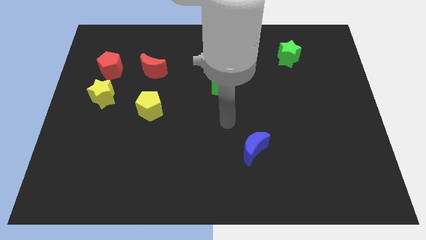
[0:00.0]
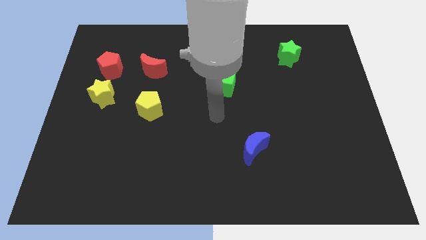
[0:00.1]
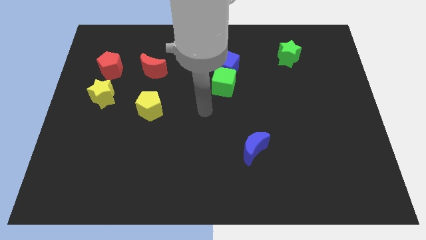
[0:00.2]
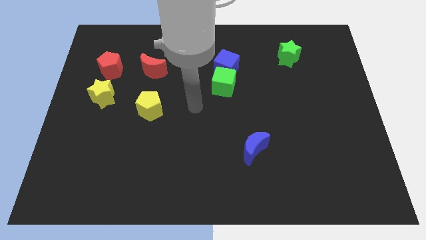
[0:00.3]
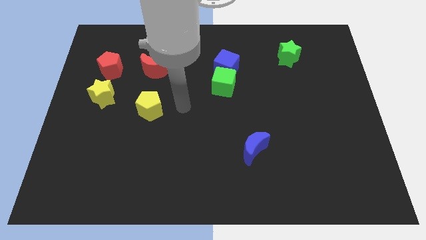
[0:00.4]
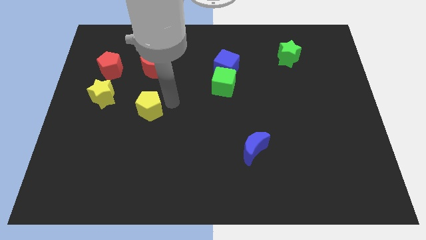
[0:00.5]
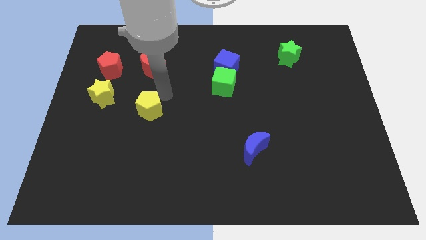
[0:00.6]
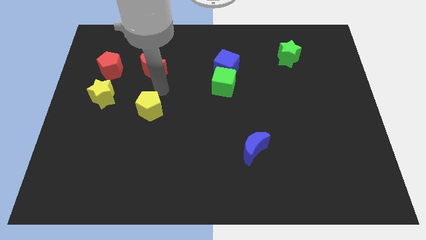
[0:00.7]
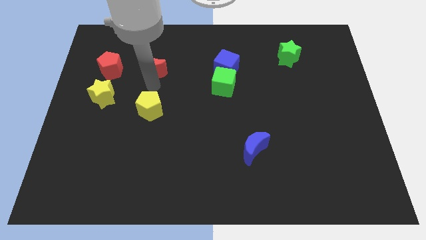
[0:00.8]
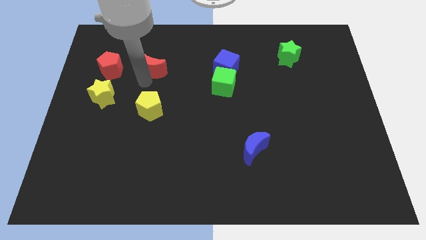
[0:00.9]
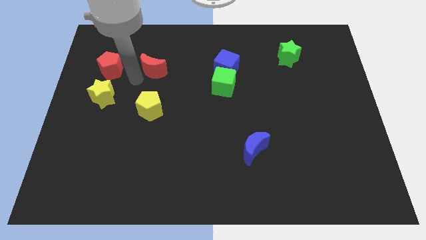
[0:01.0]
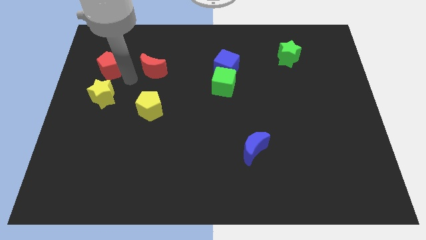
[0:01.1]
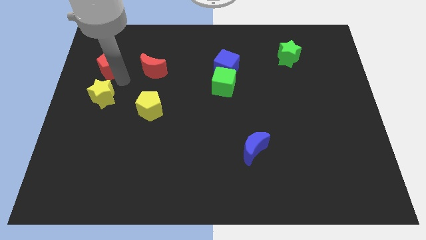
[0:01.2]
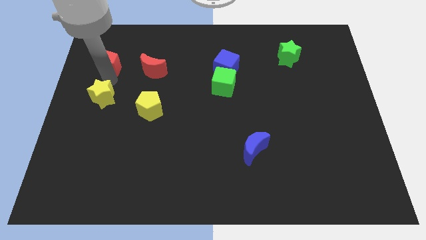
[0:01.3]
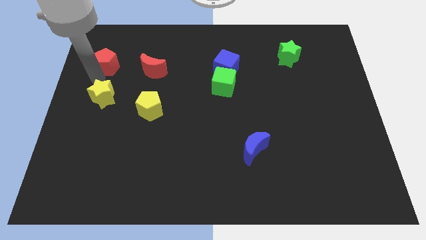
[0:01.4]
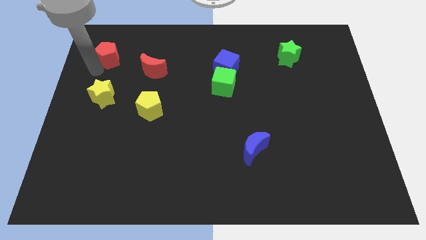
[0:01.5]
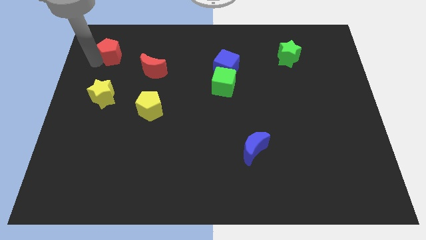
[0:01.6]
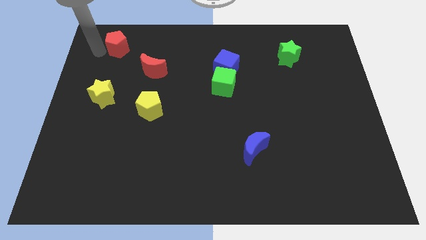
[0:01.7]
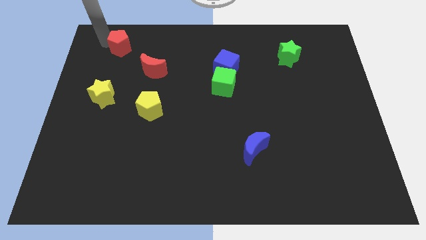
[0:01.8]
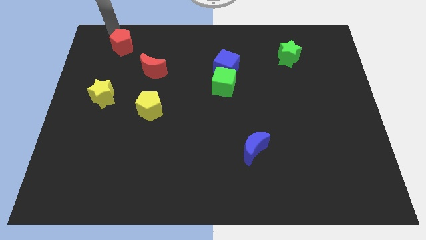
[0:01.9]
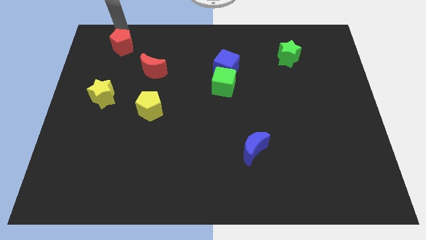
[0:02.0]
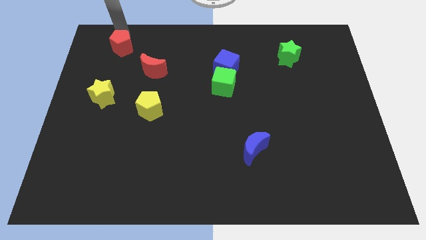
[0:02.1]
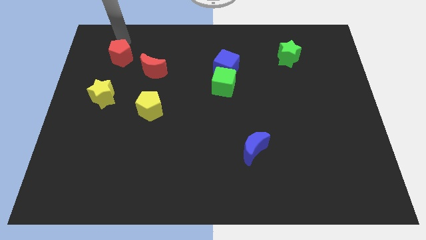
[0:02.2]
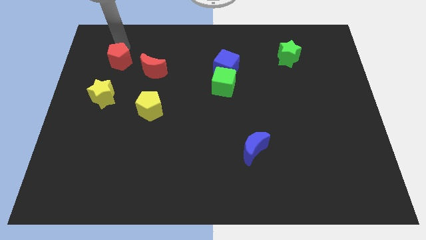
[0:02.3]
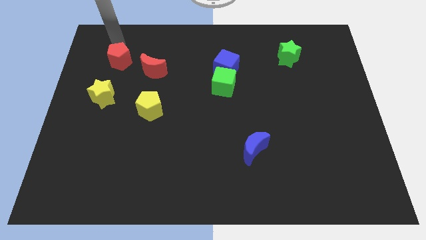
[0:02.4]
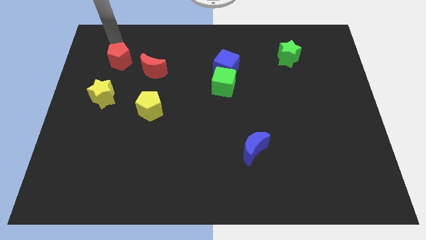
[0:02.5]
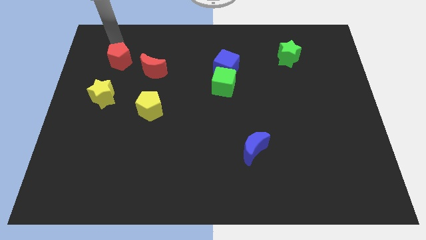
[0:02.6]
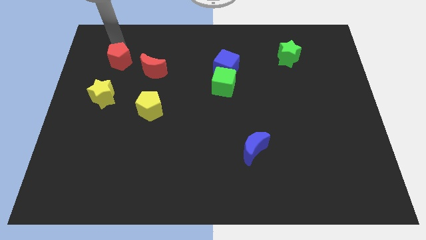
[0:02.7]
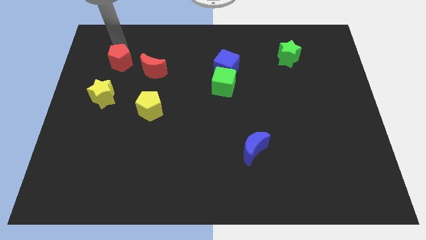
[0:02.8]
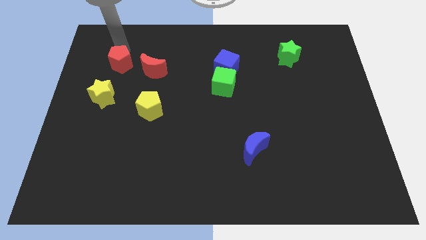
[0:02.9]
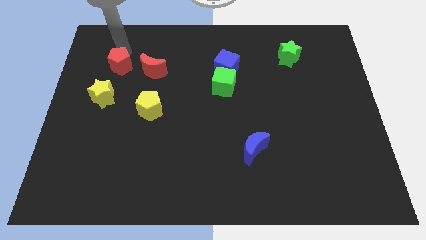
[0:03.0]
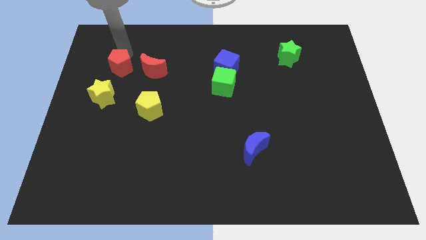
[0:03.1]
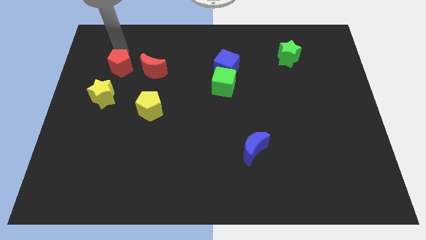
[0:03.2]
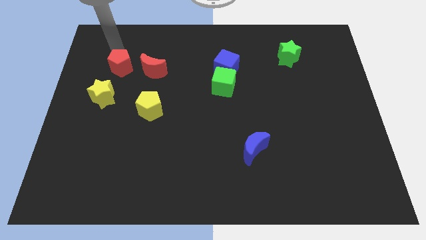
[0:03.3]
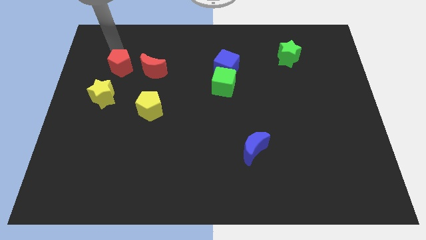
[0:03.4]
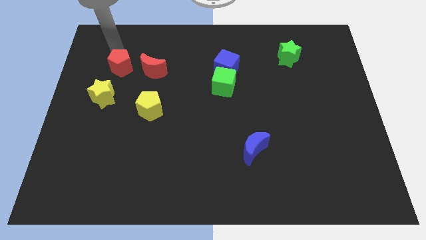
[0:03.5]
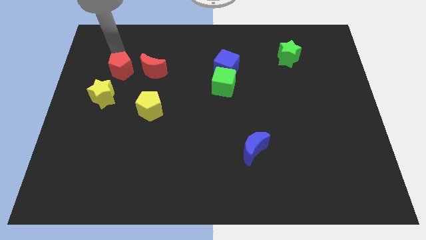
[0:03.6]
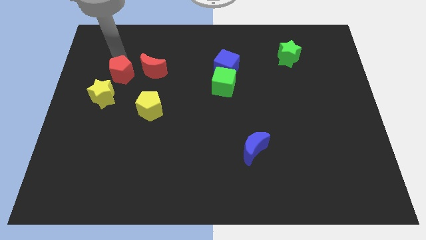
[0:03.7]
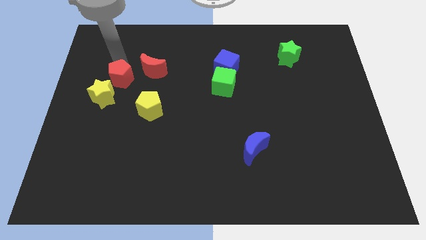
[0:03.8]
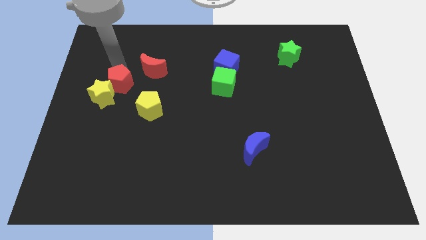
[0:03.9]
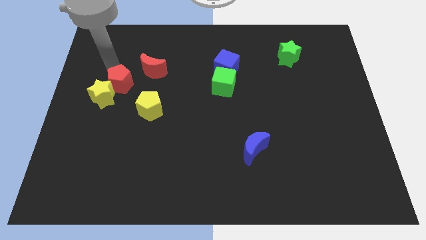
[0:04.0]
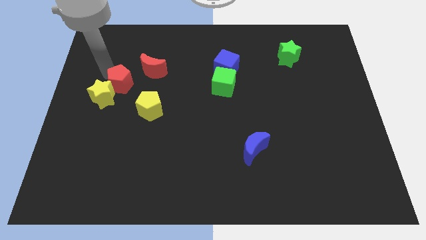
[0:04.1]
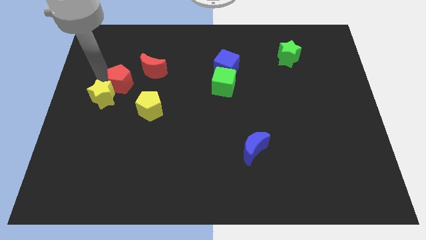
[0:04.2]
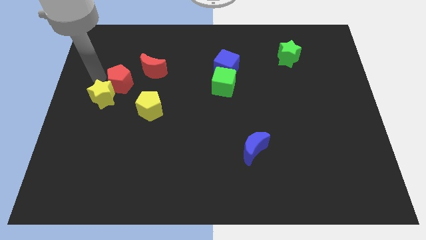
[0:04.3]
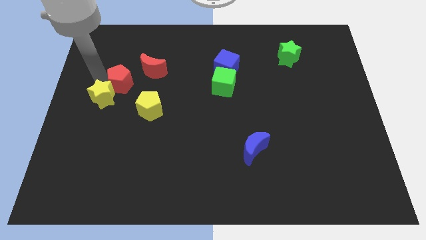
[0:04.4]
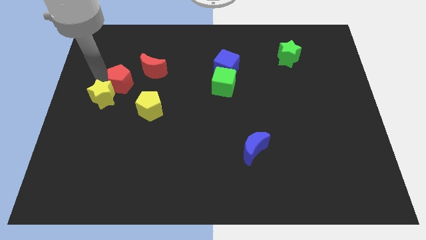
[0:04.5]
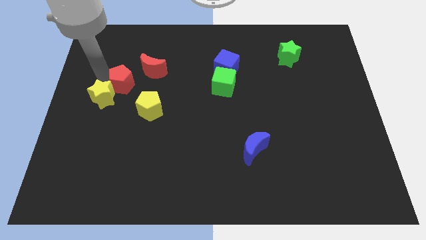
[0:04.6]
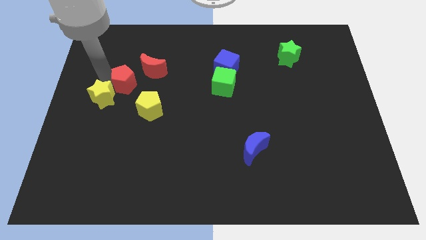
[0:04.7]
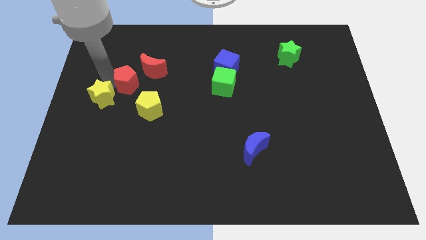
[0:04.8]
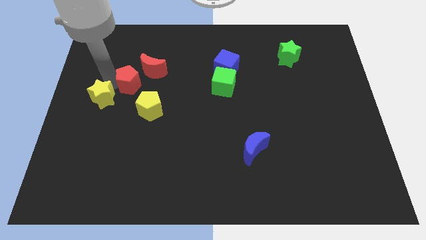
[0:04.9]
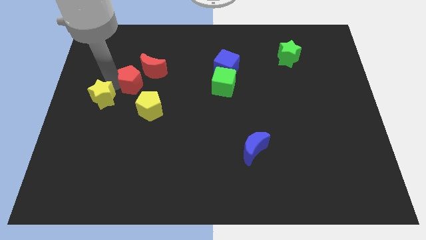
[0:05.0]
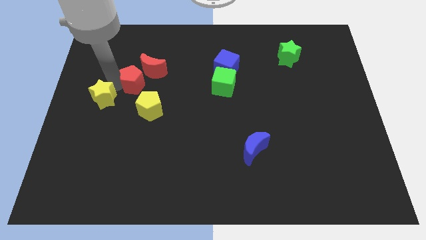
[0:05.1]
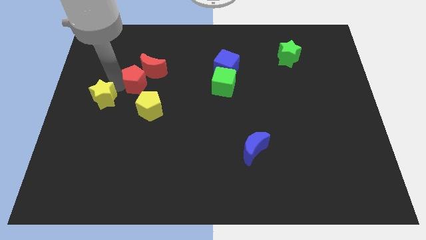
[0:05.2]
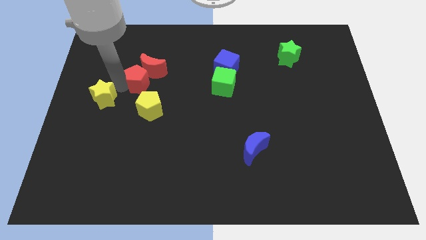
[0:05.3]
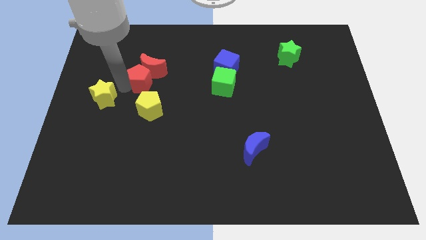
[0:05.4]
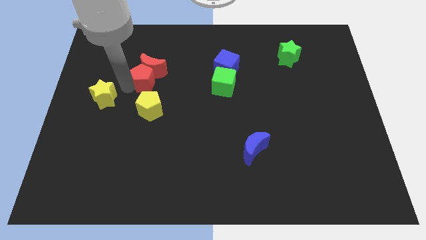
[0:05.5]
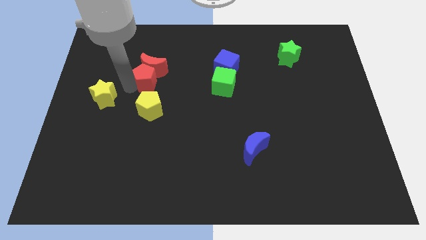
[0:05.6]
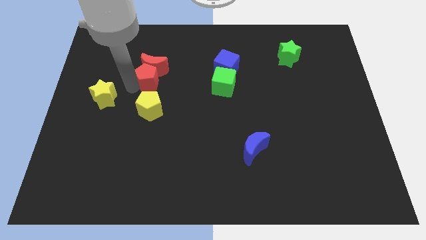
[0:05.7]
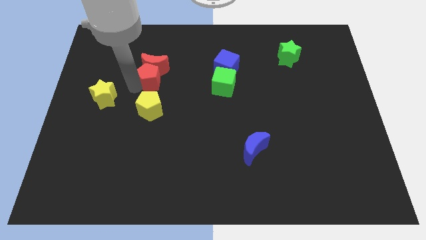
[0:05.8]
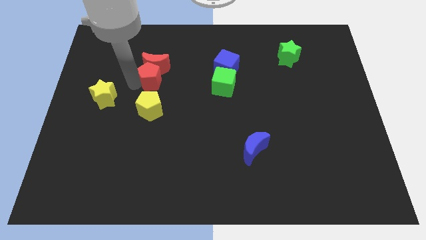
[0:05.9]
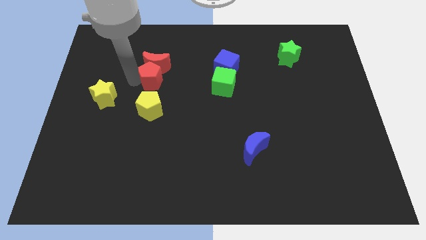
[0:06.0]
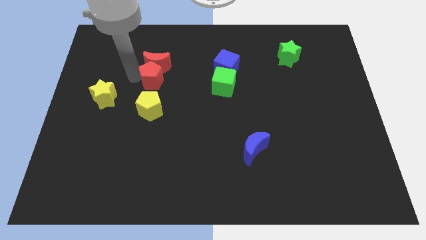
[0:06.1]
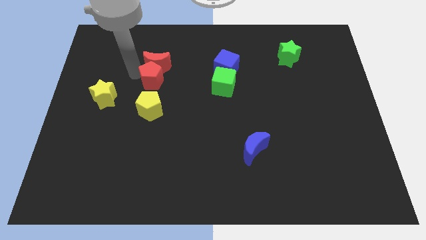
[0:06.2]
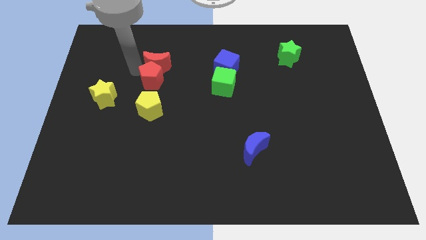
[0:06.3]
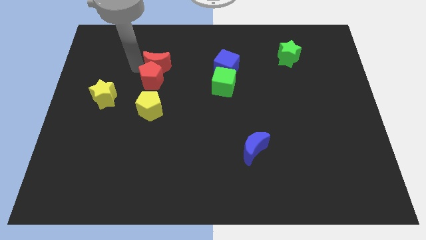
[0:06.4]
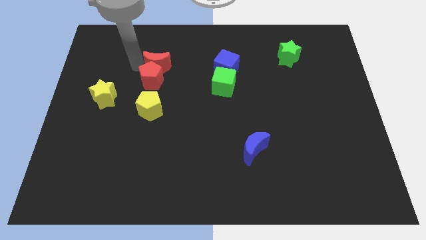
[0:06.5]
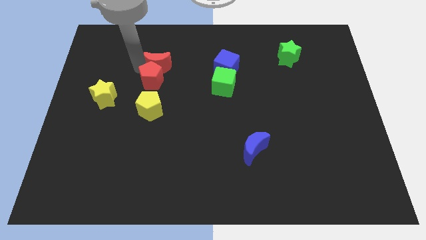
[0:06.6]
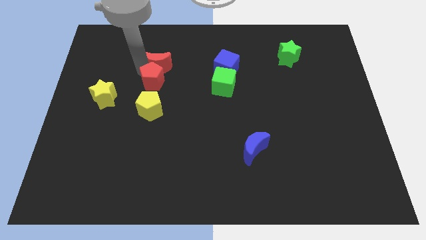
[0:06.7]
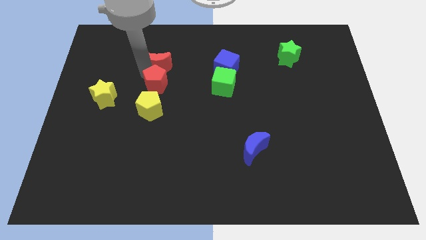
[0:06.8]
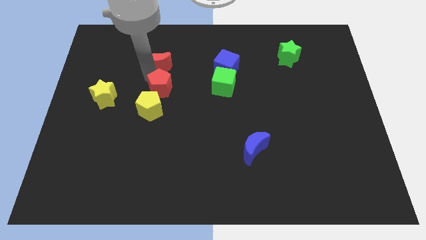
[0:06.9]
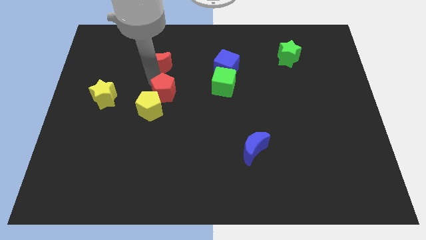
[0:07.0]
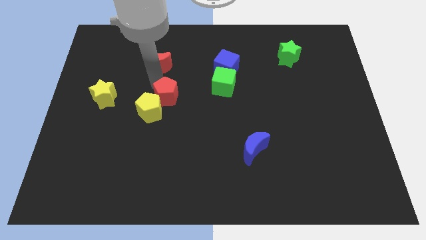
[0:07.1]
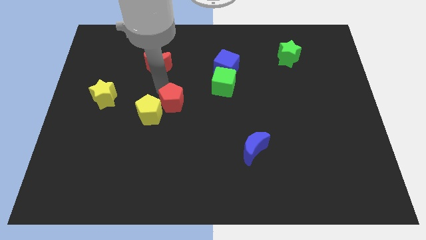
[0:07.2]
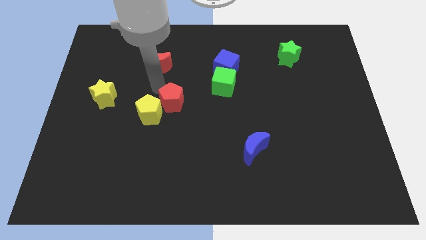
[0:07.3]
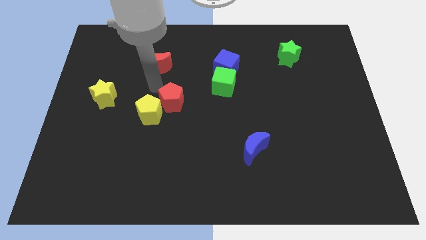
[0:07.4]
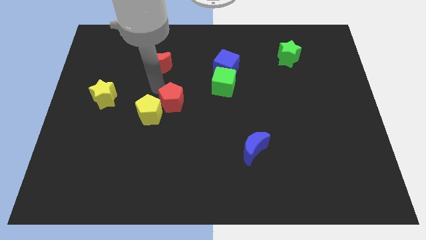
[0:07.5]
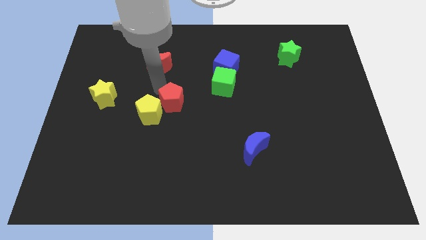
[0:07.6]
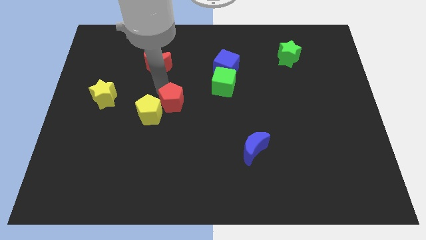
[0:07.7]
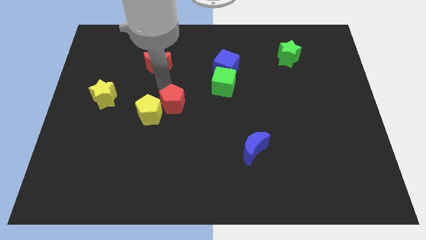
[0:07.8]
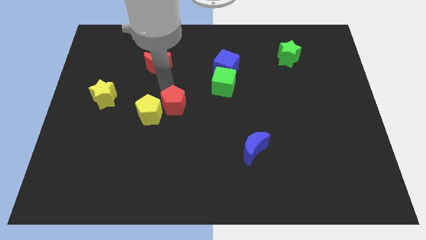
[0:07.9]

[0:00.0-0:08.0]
move the red pentagon down and then to the right
